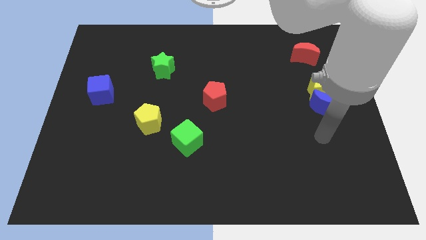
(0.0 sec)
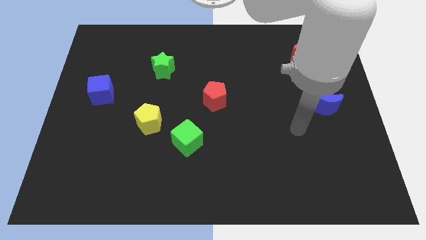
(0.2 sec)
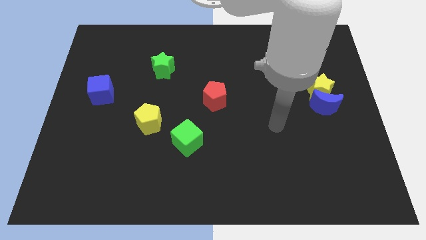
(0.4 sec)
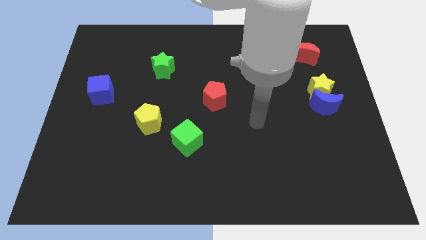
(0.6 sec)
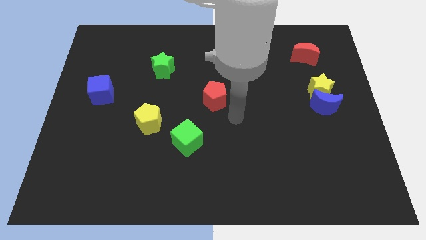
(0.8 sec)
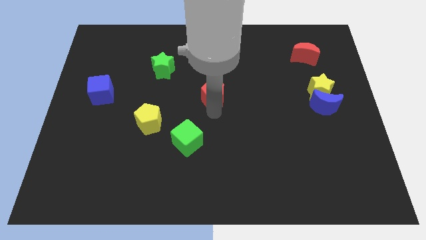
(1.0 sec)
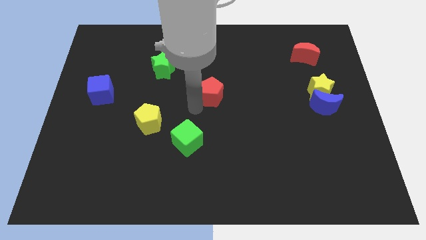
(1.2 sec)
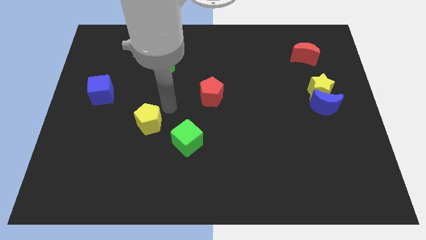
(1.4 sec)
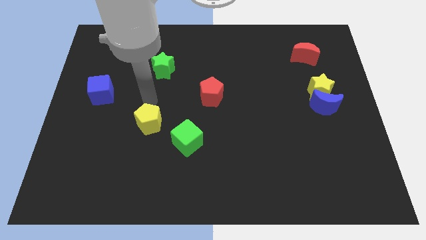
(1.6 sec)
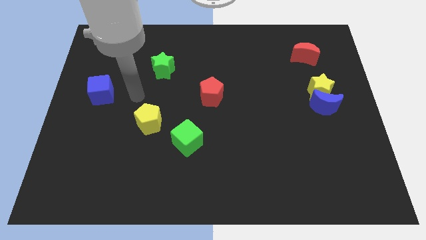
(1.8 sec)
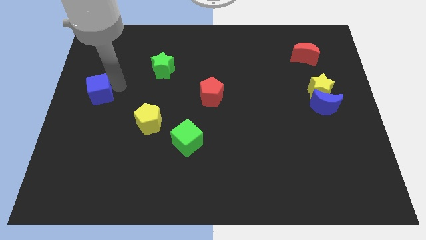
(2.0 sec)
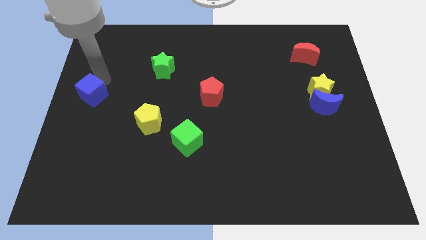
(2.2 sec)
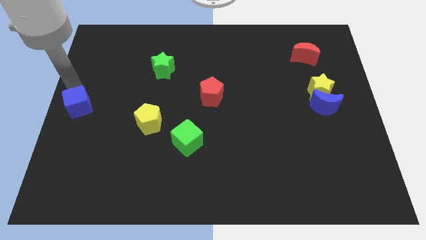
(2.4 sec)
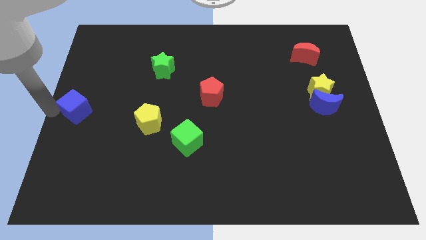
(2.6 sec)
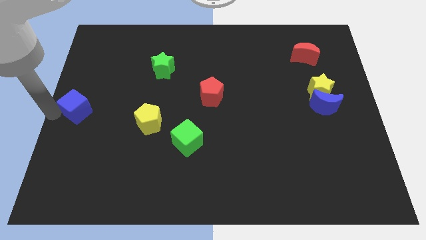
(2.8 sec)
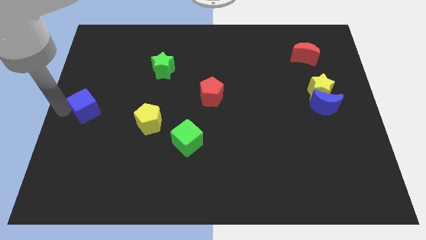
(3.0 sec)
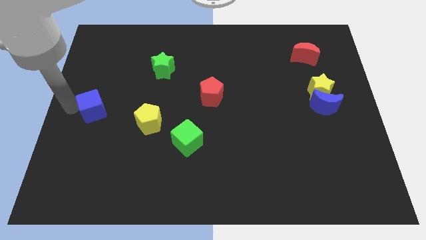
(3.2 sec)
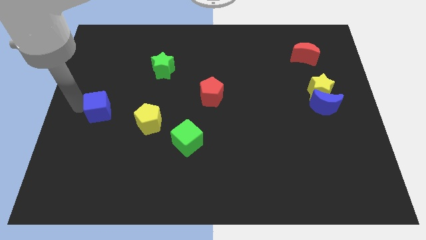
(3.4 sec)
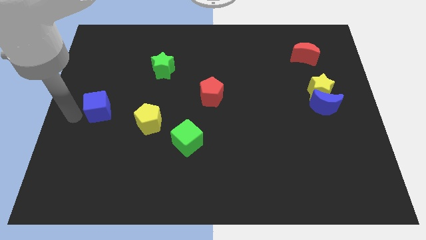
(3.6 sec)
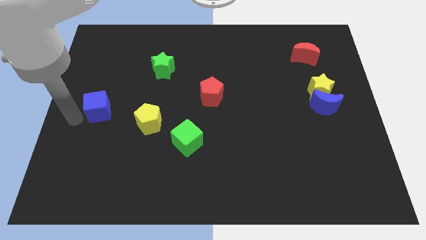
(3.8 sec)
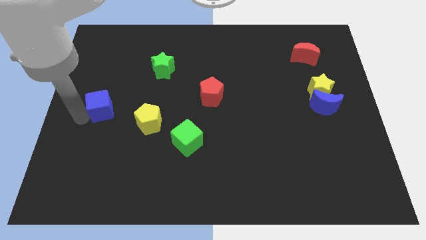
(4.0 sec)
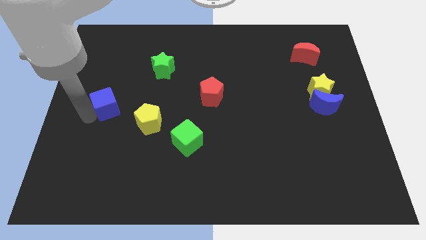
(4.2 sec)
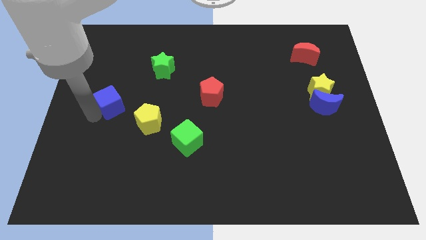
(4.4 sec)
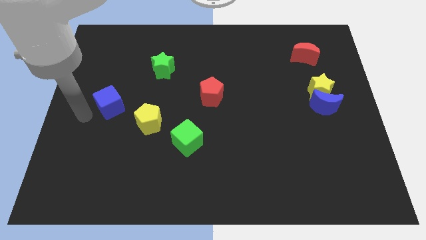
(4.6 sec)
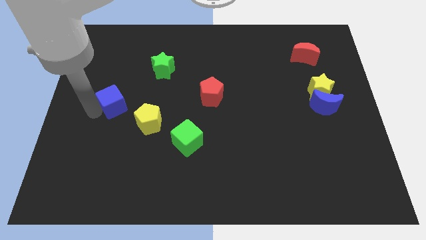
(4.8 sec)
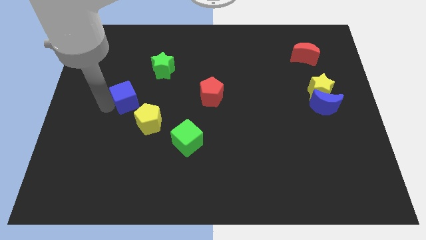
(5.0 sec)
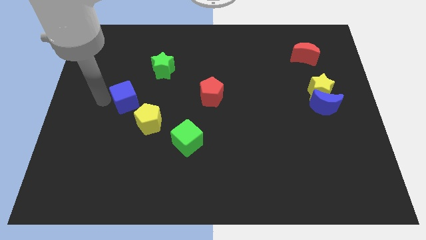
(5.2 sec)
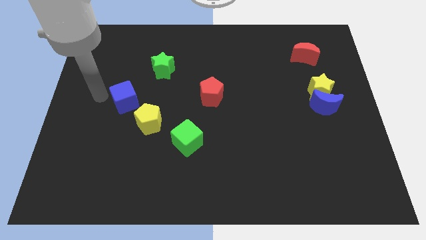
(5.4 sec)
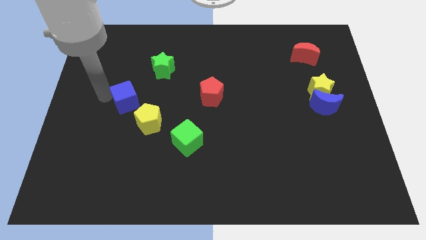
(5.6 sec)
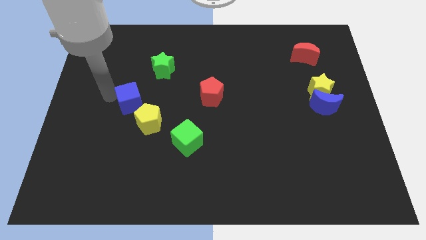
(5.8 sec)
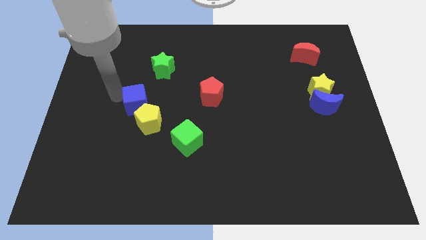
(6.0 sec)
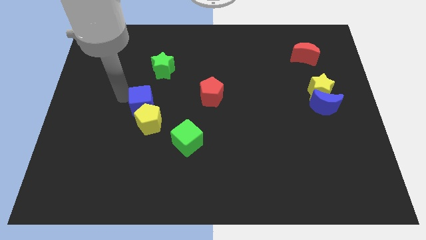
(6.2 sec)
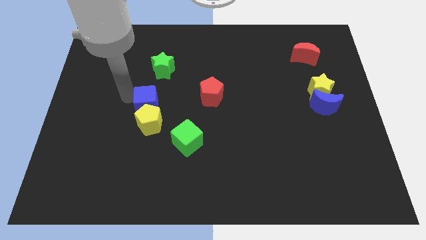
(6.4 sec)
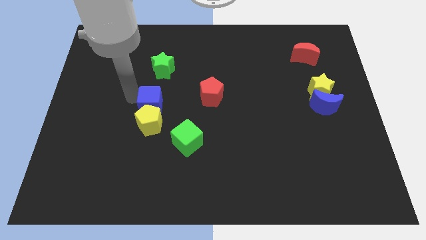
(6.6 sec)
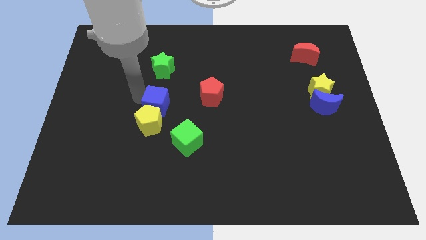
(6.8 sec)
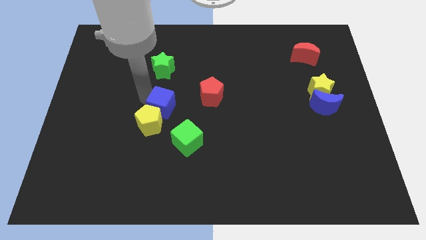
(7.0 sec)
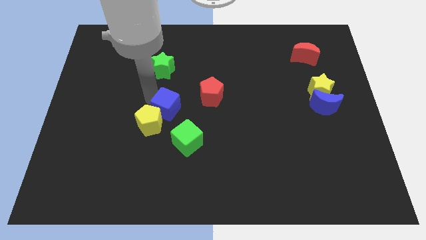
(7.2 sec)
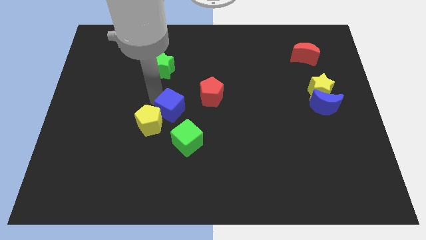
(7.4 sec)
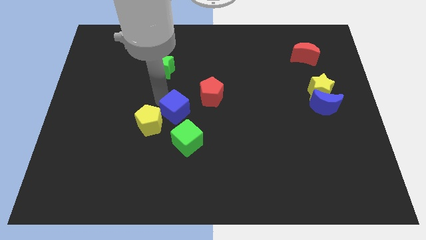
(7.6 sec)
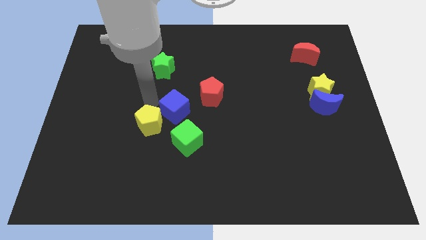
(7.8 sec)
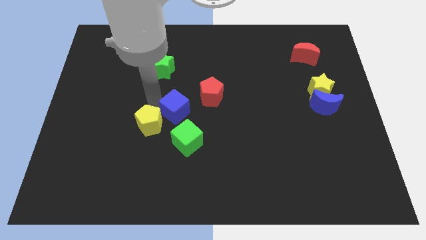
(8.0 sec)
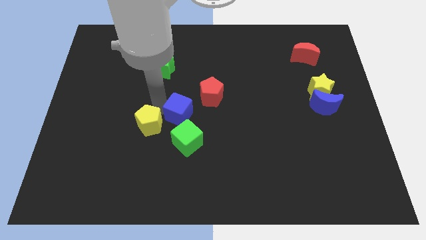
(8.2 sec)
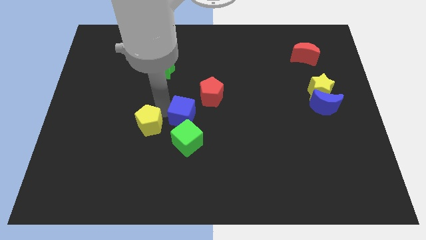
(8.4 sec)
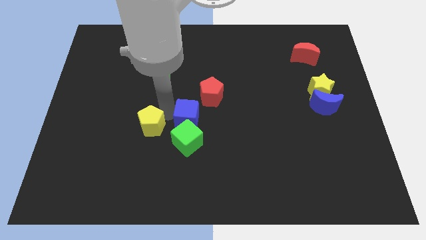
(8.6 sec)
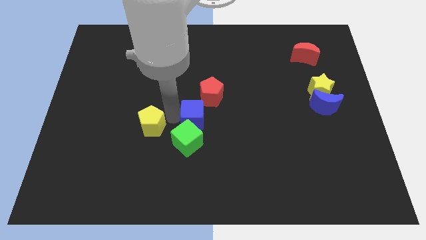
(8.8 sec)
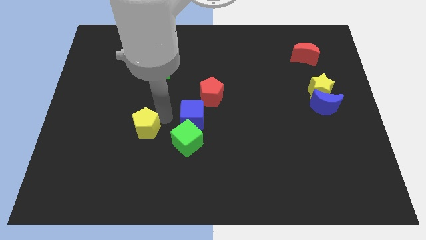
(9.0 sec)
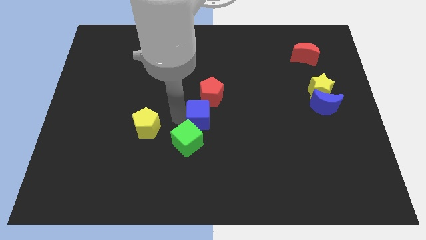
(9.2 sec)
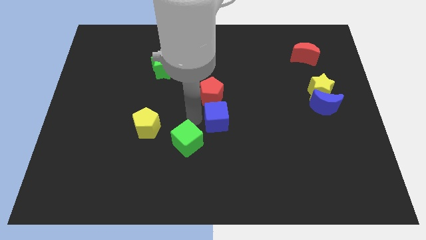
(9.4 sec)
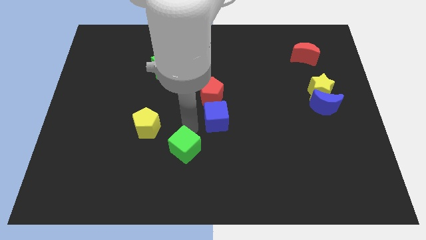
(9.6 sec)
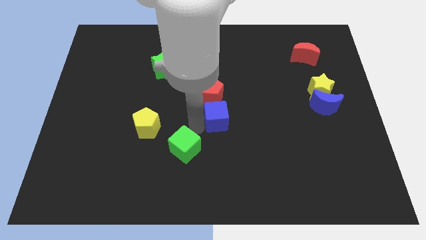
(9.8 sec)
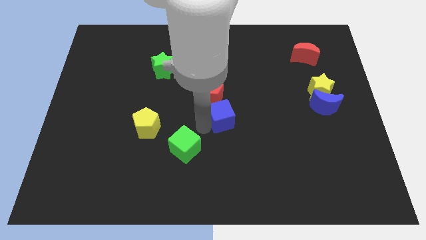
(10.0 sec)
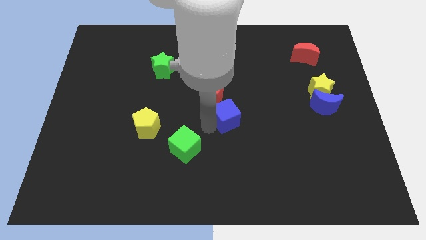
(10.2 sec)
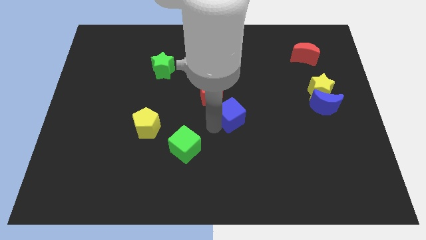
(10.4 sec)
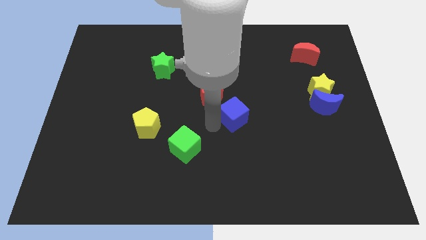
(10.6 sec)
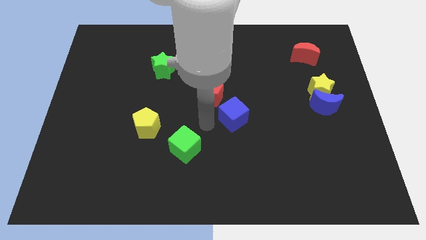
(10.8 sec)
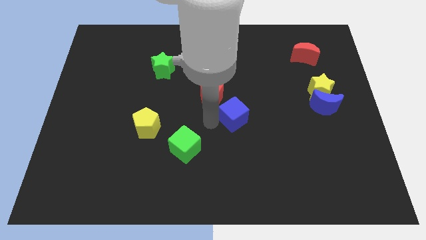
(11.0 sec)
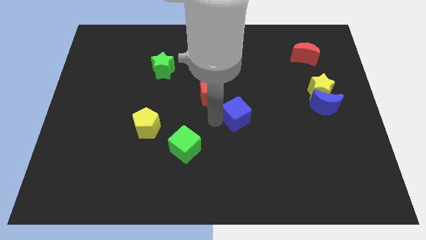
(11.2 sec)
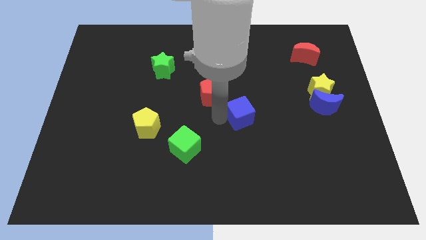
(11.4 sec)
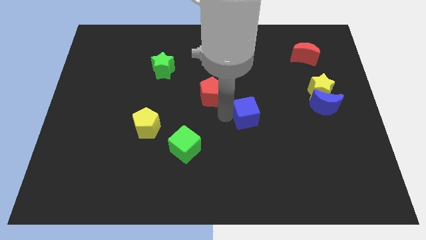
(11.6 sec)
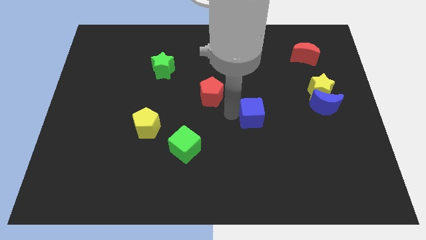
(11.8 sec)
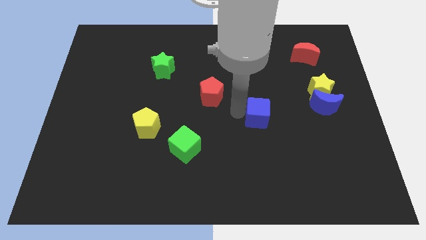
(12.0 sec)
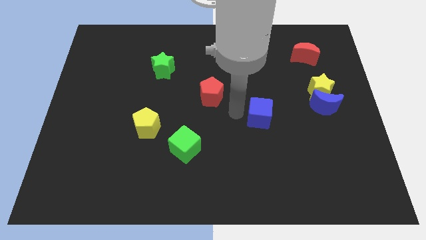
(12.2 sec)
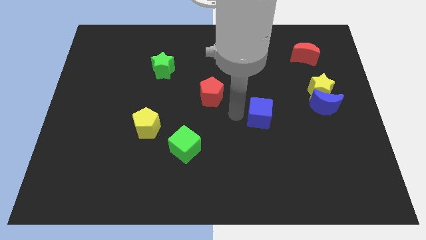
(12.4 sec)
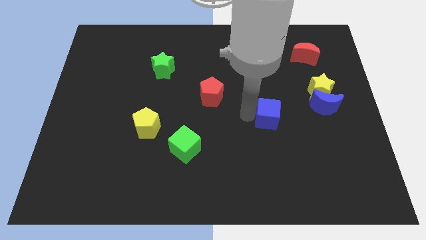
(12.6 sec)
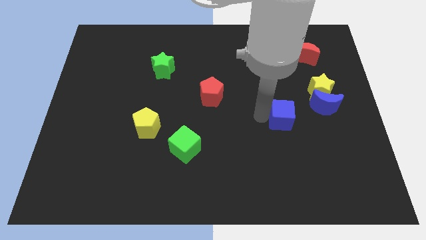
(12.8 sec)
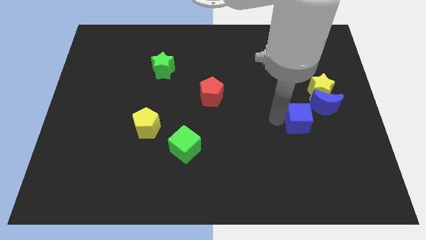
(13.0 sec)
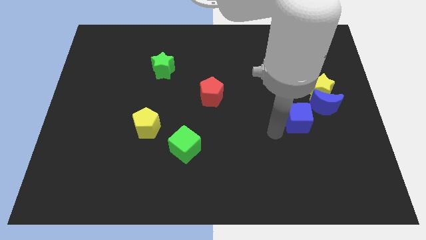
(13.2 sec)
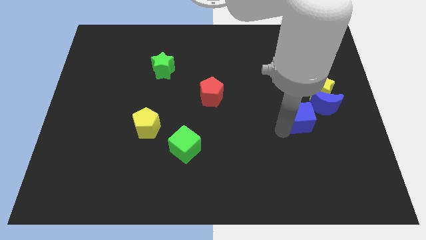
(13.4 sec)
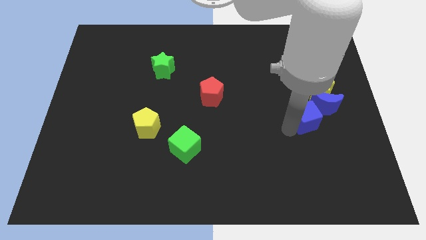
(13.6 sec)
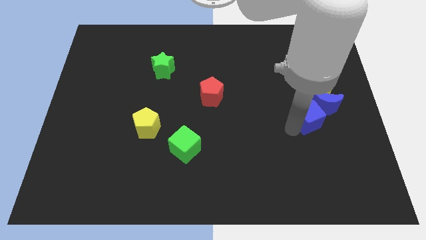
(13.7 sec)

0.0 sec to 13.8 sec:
move the blue cube next to the blue moon

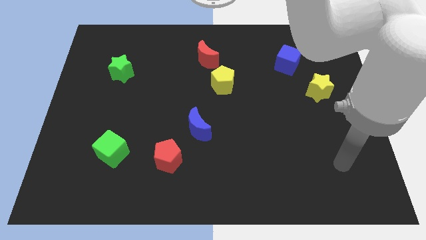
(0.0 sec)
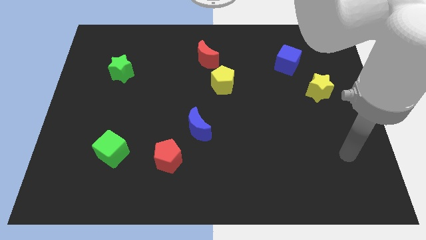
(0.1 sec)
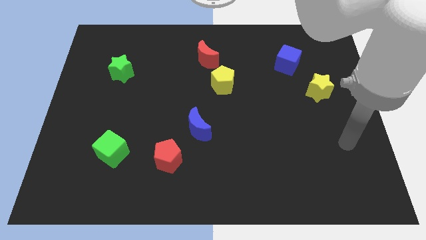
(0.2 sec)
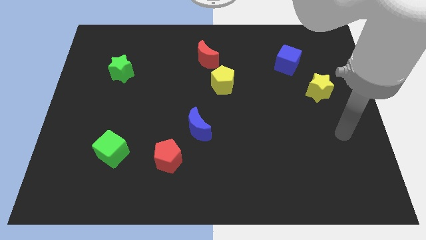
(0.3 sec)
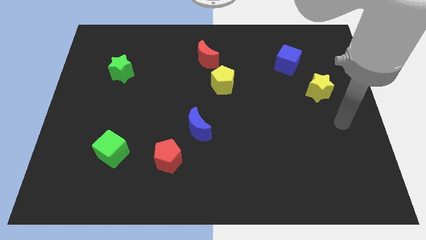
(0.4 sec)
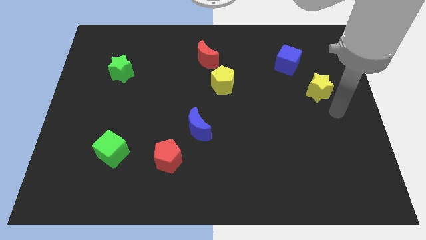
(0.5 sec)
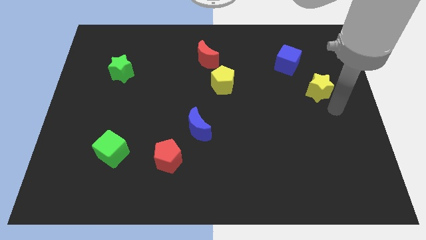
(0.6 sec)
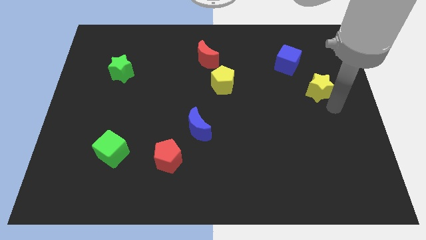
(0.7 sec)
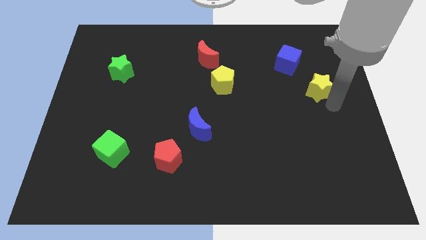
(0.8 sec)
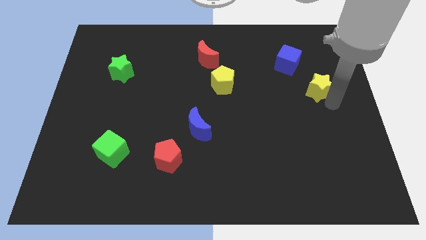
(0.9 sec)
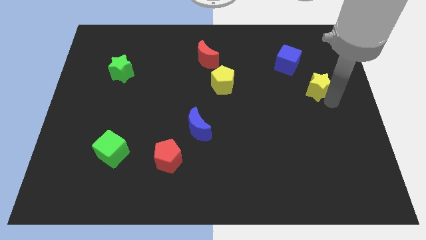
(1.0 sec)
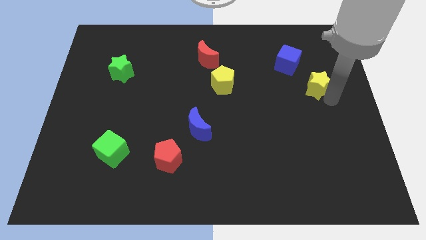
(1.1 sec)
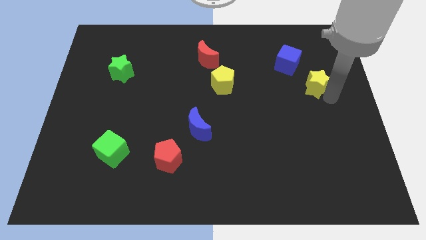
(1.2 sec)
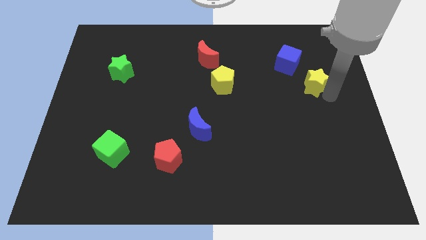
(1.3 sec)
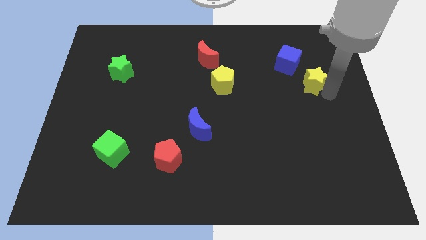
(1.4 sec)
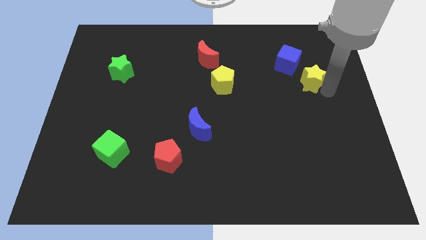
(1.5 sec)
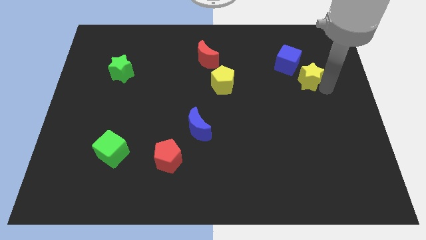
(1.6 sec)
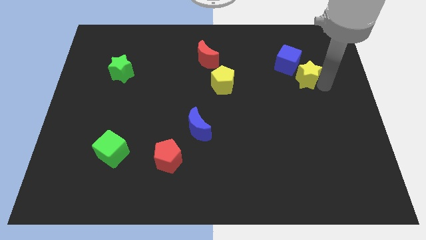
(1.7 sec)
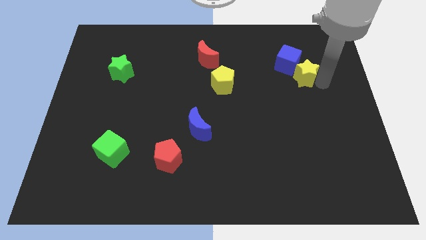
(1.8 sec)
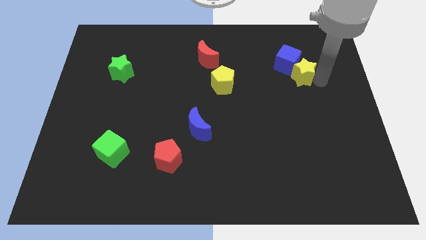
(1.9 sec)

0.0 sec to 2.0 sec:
slide the yellow star to the blue cube
